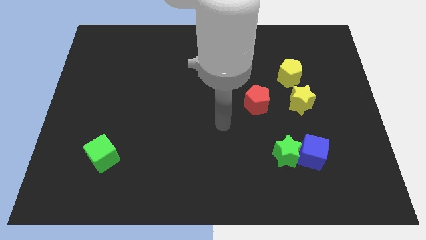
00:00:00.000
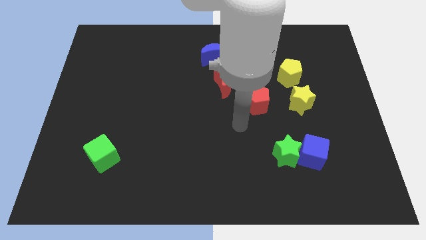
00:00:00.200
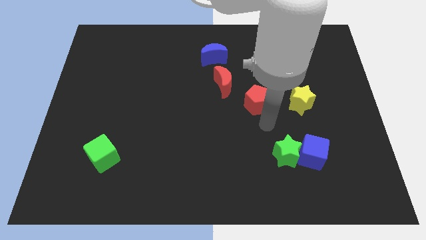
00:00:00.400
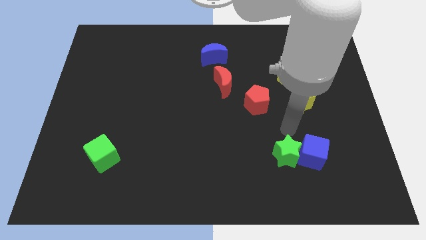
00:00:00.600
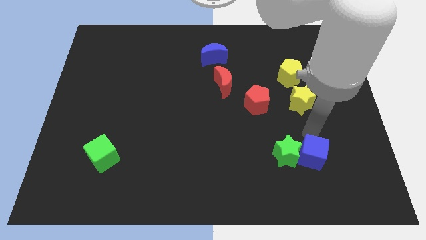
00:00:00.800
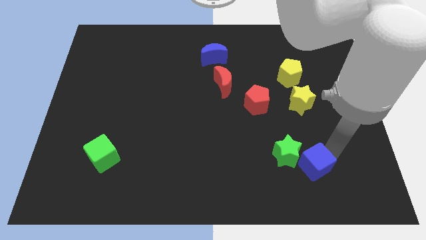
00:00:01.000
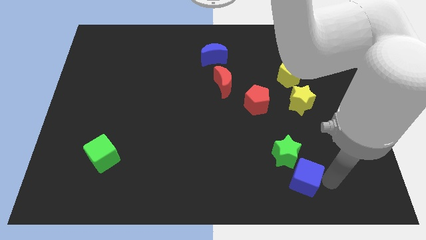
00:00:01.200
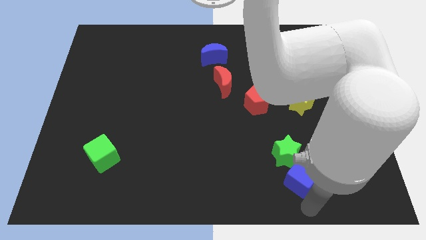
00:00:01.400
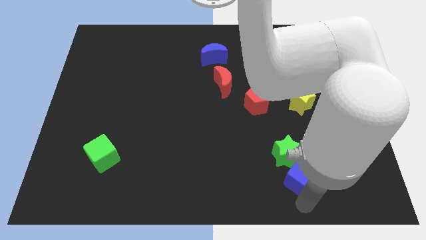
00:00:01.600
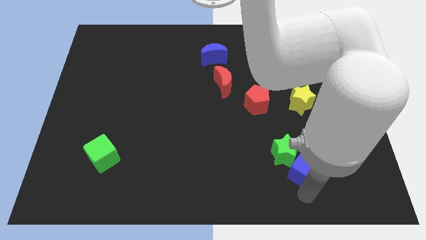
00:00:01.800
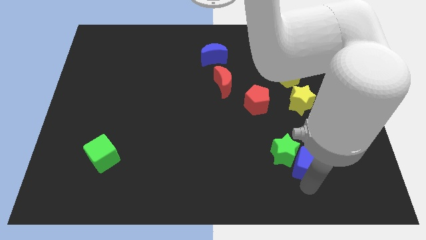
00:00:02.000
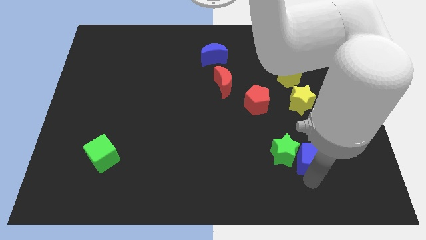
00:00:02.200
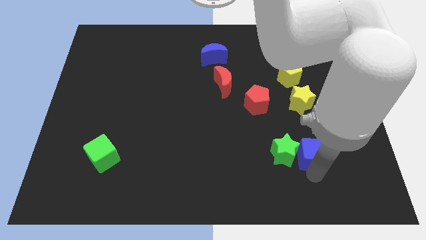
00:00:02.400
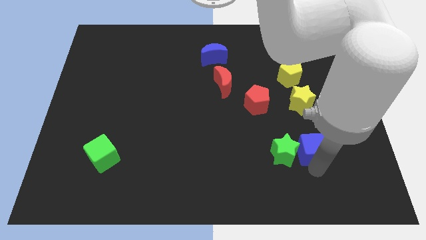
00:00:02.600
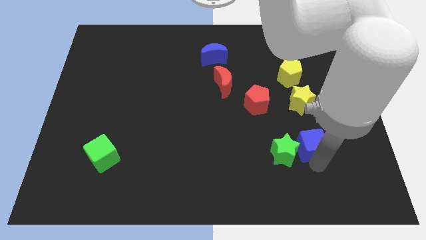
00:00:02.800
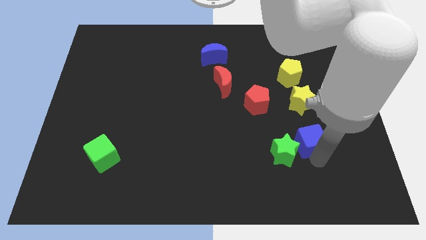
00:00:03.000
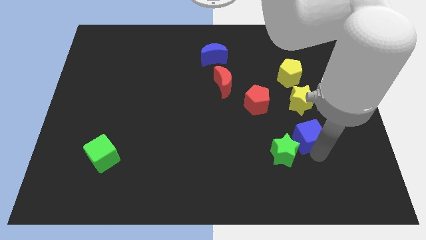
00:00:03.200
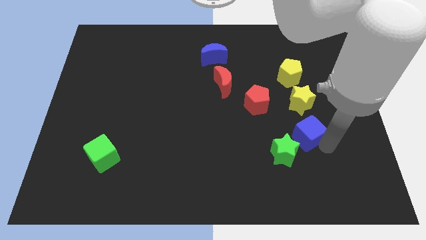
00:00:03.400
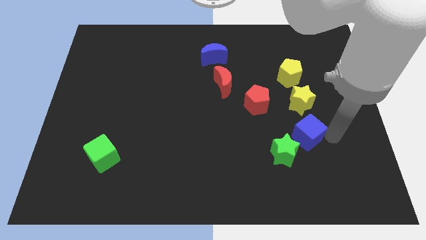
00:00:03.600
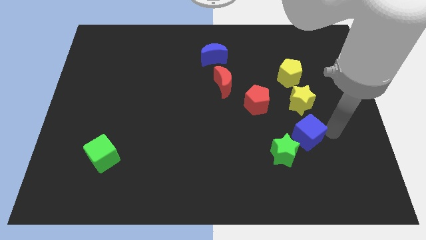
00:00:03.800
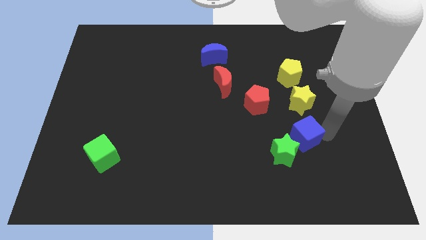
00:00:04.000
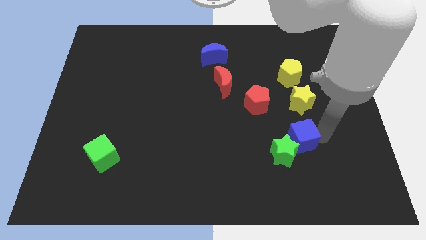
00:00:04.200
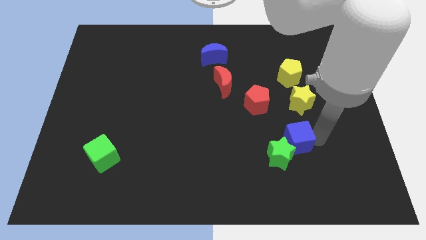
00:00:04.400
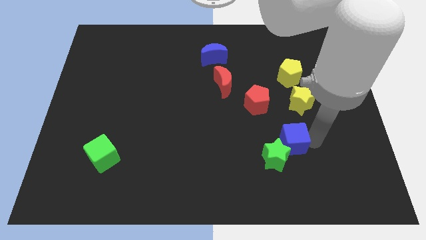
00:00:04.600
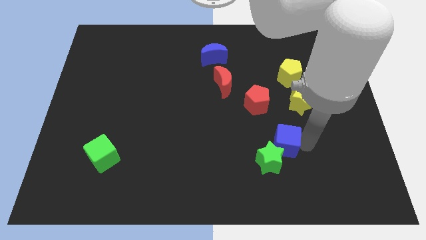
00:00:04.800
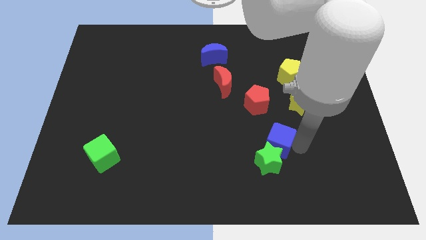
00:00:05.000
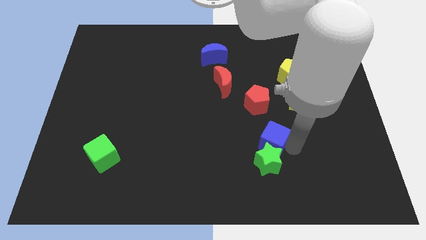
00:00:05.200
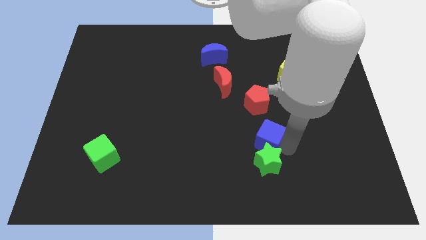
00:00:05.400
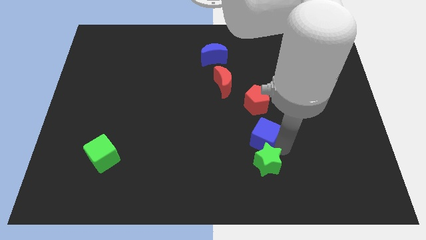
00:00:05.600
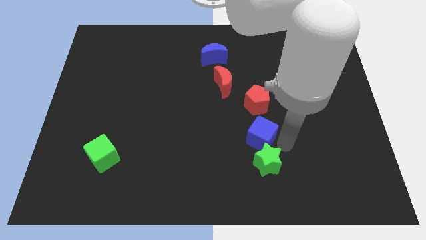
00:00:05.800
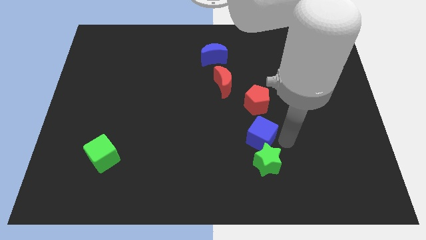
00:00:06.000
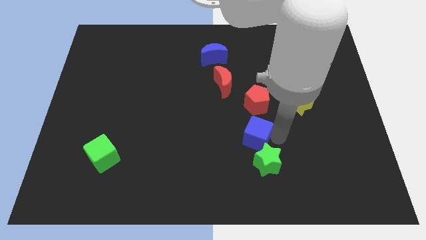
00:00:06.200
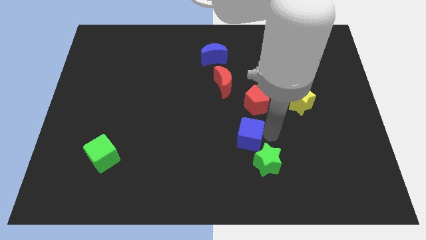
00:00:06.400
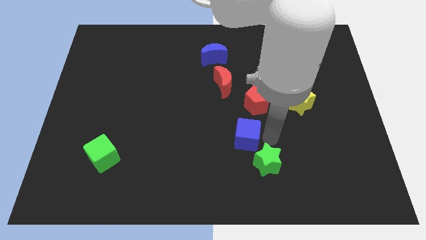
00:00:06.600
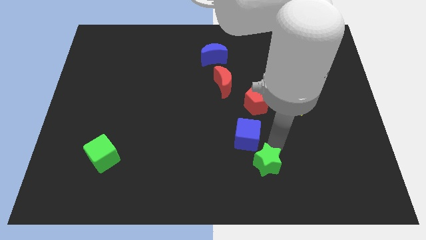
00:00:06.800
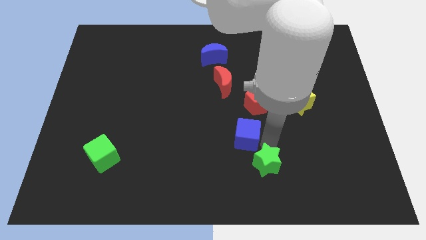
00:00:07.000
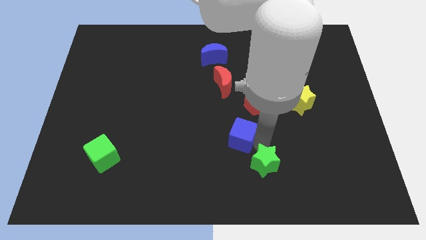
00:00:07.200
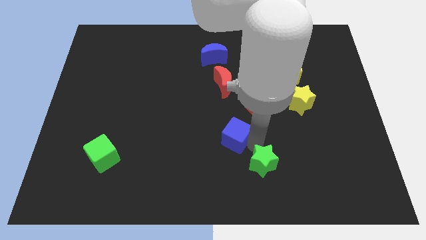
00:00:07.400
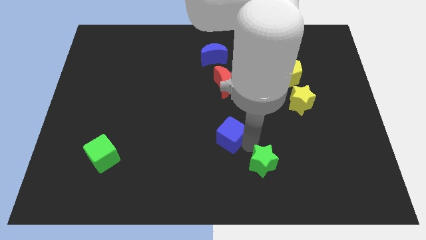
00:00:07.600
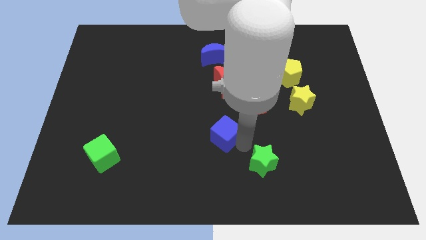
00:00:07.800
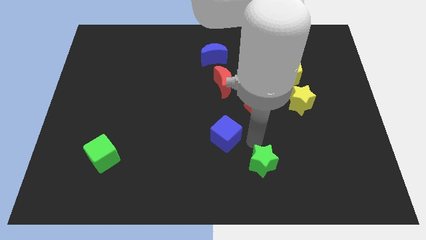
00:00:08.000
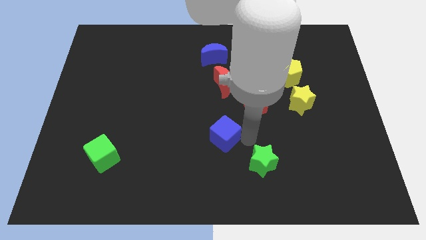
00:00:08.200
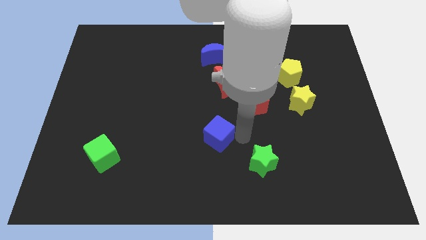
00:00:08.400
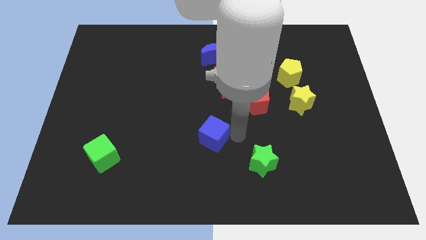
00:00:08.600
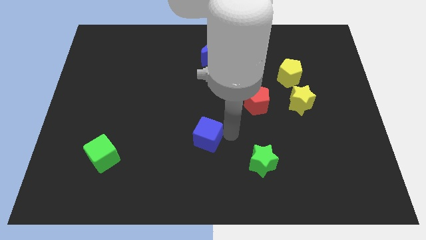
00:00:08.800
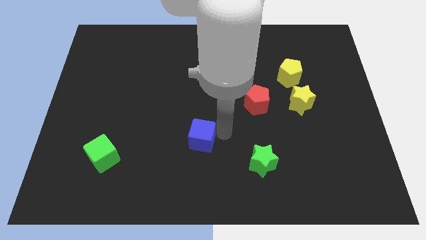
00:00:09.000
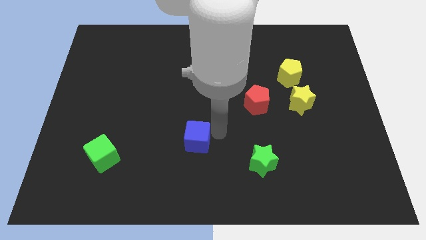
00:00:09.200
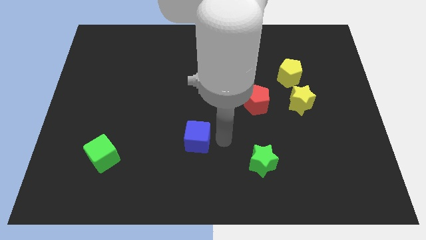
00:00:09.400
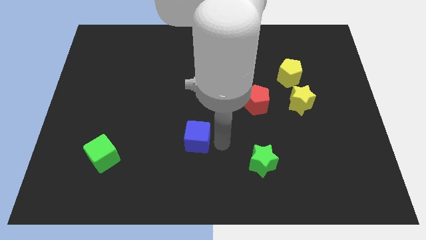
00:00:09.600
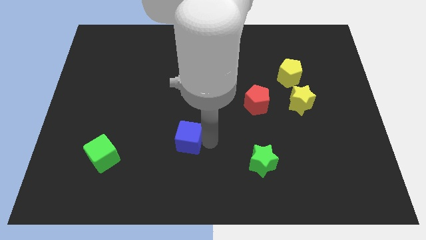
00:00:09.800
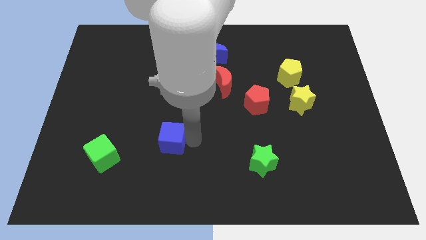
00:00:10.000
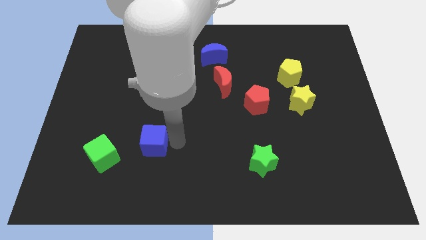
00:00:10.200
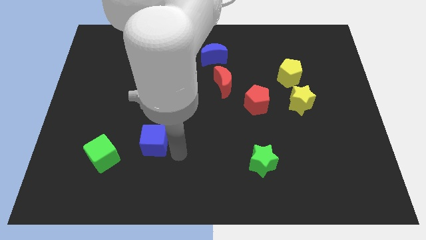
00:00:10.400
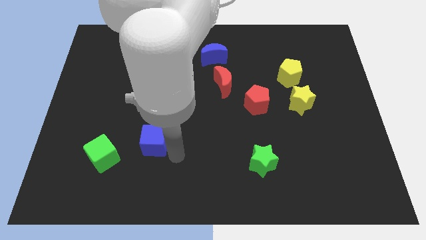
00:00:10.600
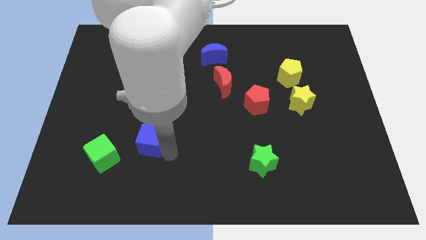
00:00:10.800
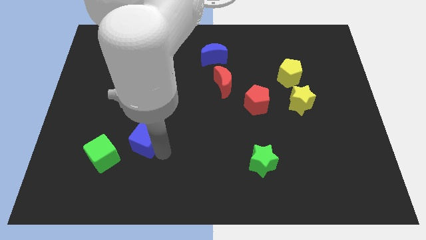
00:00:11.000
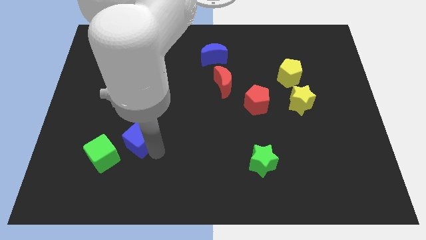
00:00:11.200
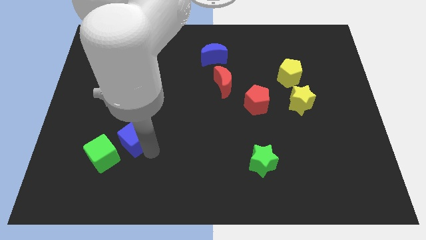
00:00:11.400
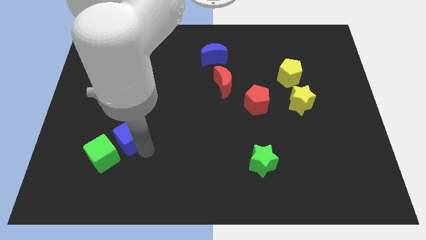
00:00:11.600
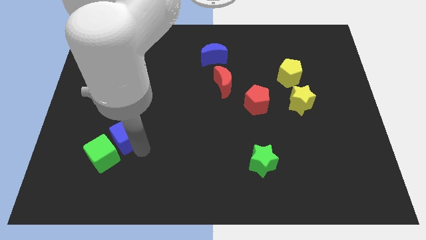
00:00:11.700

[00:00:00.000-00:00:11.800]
push the blue cube to the top of the green cube

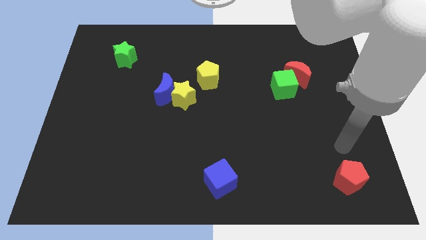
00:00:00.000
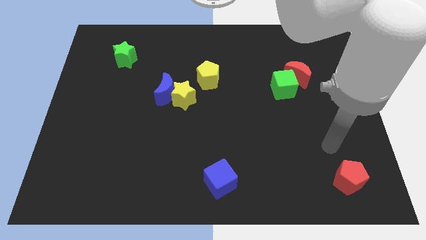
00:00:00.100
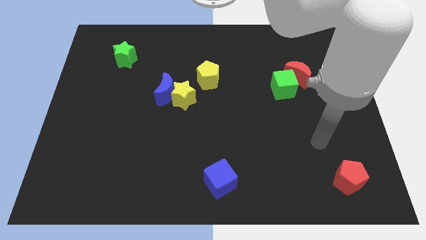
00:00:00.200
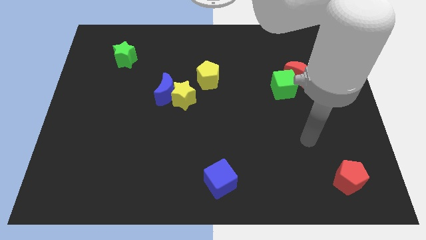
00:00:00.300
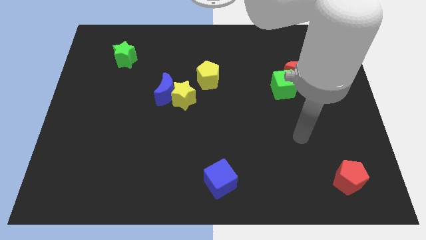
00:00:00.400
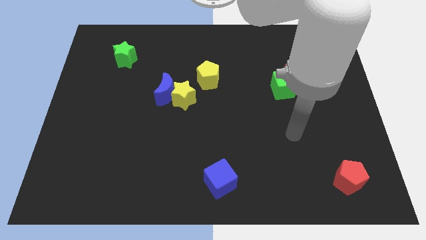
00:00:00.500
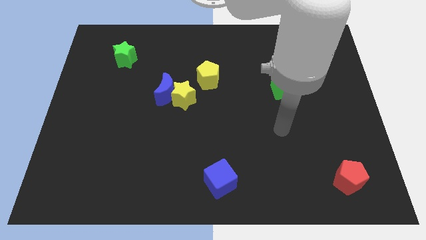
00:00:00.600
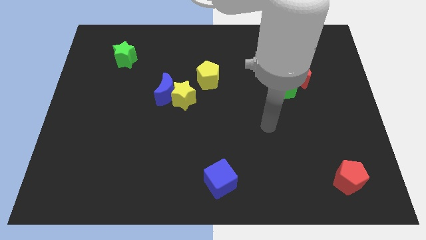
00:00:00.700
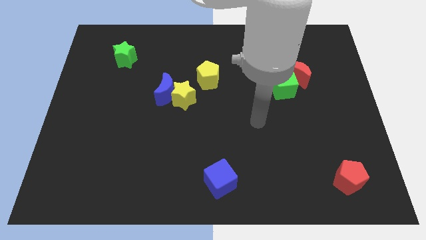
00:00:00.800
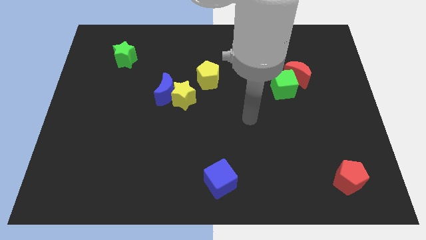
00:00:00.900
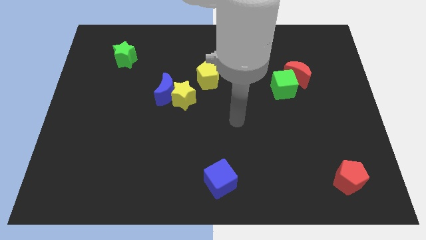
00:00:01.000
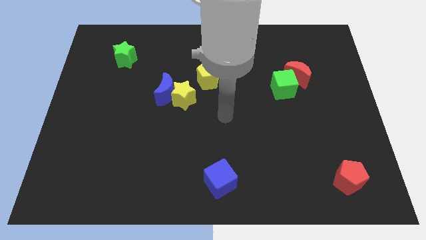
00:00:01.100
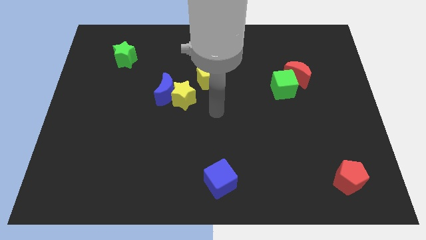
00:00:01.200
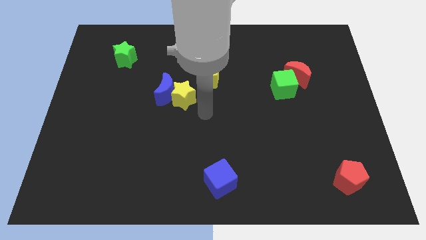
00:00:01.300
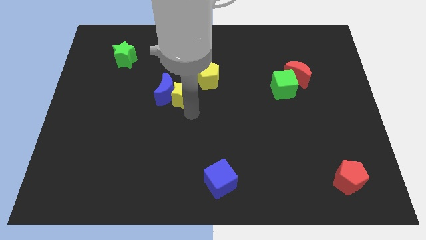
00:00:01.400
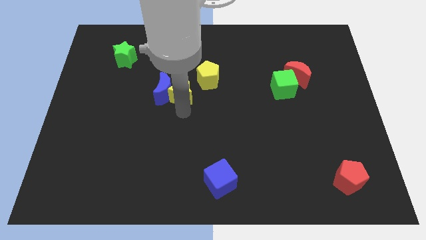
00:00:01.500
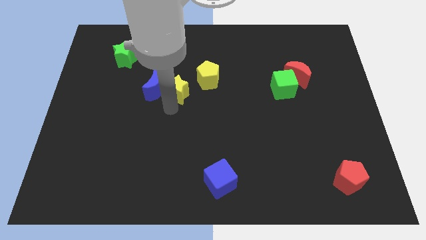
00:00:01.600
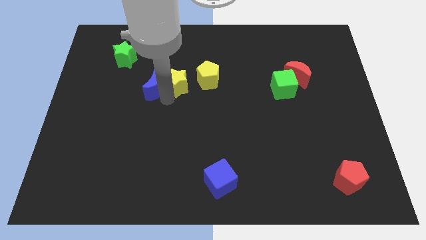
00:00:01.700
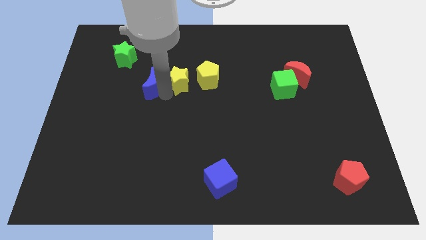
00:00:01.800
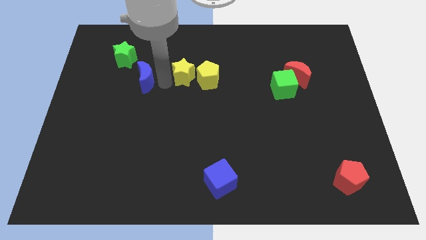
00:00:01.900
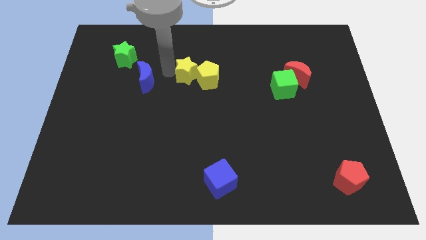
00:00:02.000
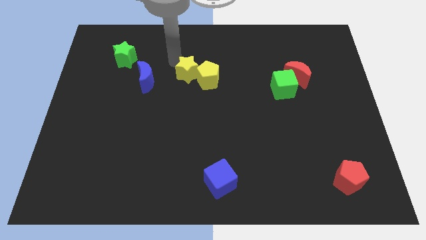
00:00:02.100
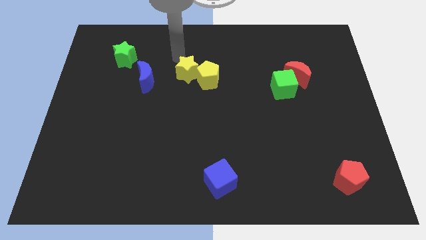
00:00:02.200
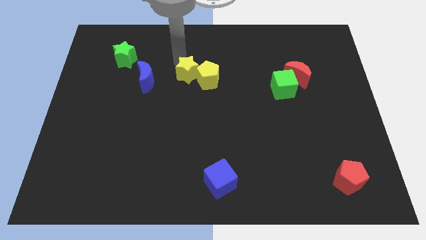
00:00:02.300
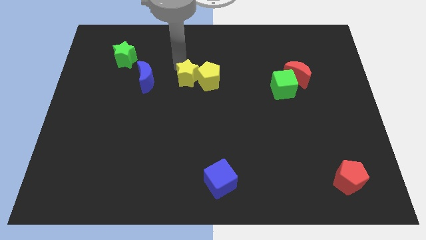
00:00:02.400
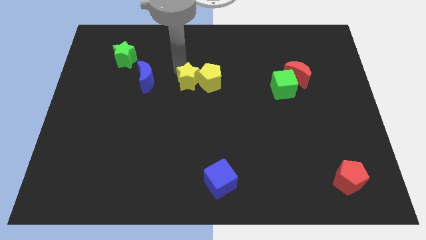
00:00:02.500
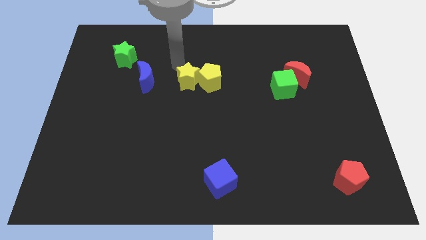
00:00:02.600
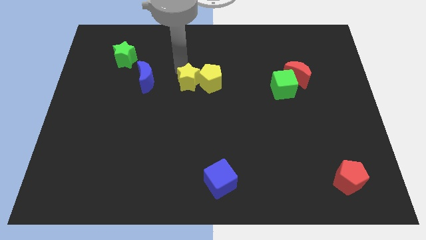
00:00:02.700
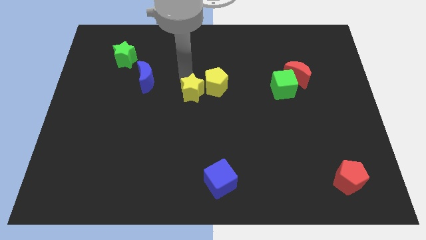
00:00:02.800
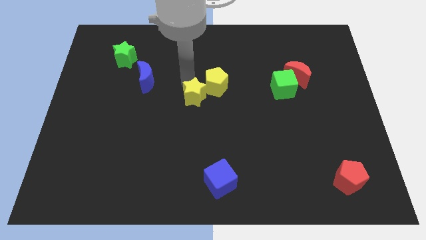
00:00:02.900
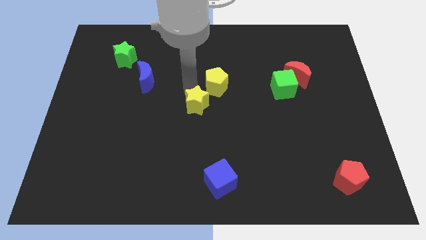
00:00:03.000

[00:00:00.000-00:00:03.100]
move the yellow star to the bottom side of the yellow pentagon
